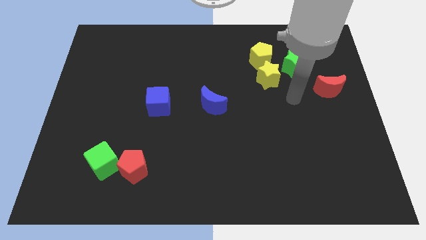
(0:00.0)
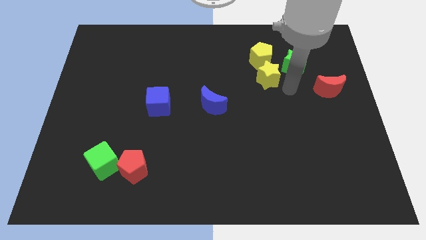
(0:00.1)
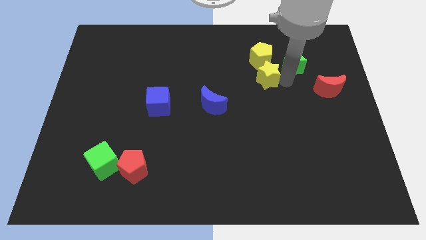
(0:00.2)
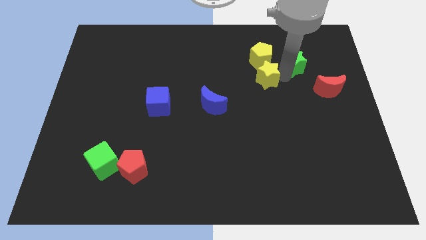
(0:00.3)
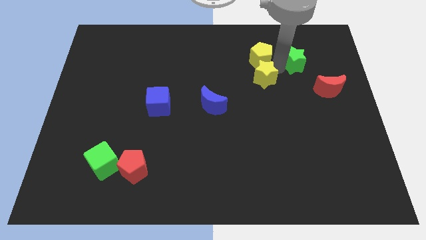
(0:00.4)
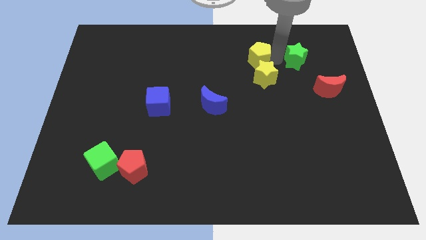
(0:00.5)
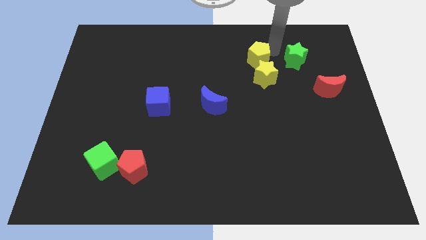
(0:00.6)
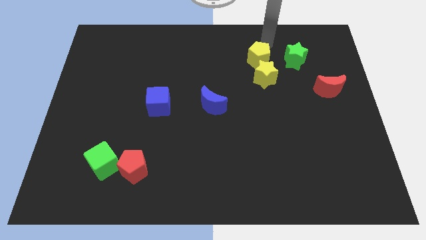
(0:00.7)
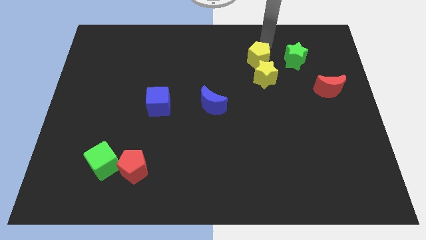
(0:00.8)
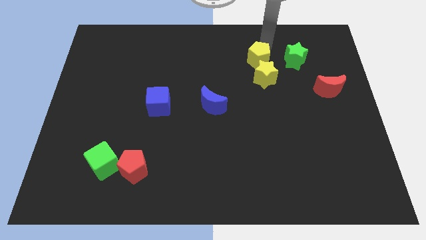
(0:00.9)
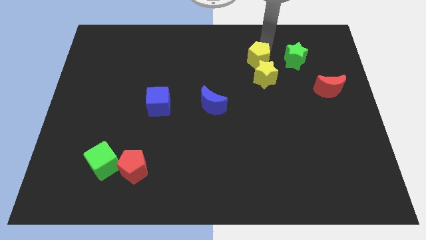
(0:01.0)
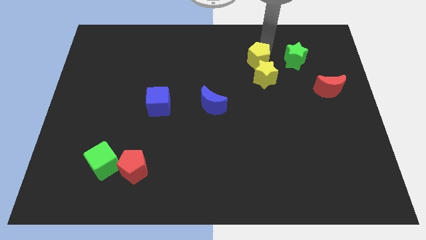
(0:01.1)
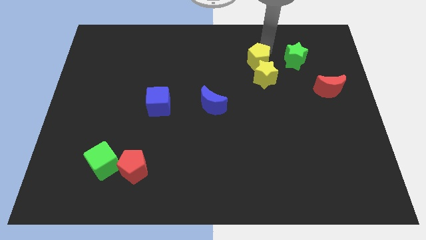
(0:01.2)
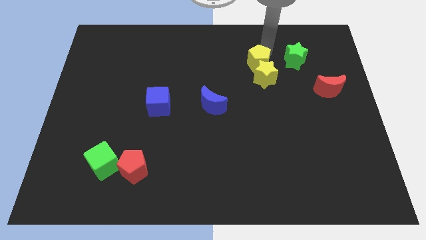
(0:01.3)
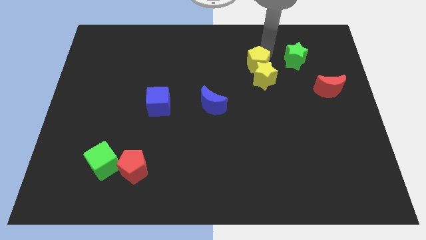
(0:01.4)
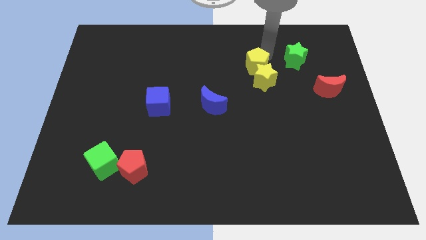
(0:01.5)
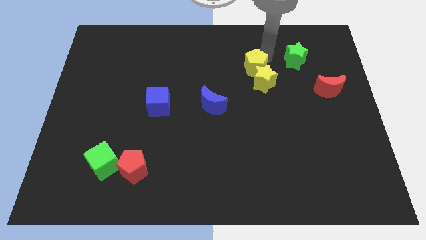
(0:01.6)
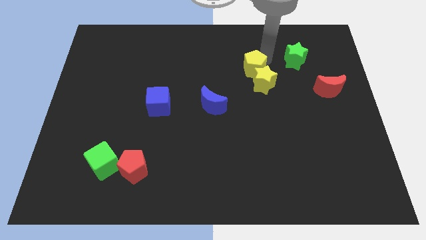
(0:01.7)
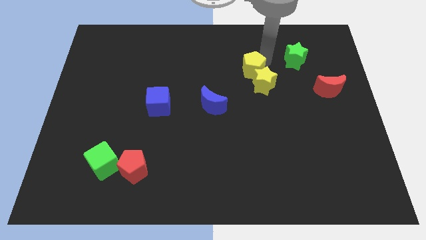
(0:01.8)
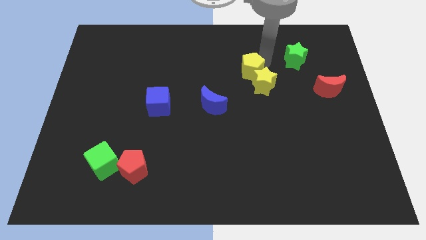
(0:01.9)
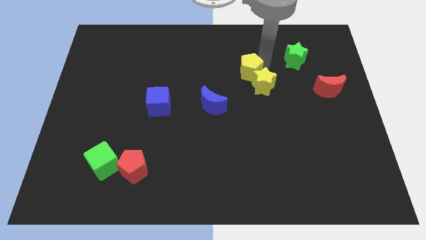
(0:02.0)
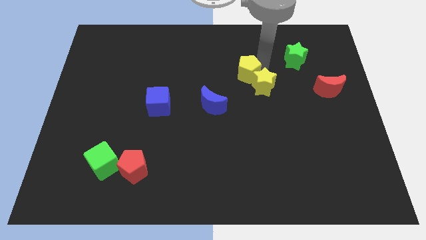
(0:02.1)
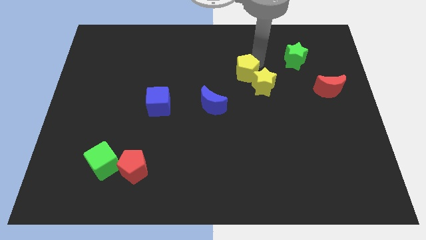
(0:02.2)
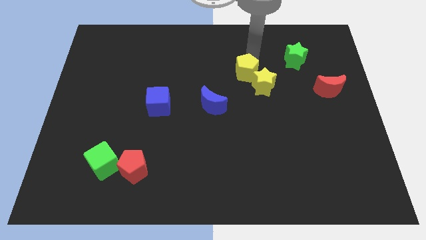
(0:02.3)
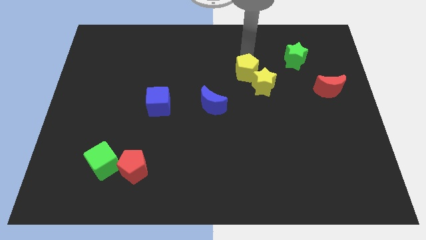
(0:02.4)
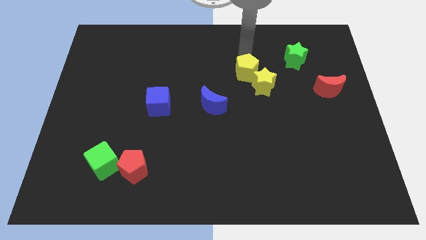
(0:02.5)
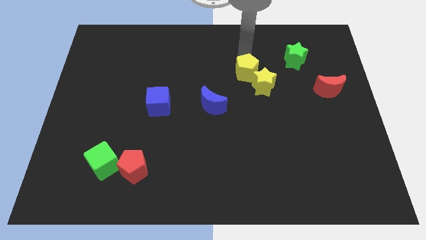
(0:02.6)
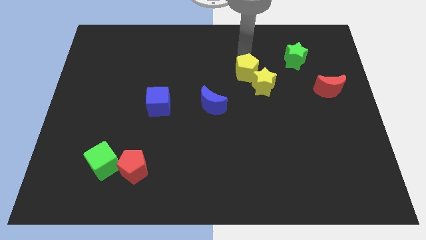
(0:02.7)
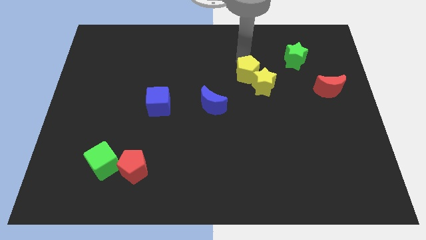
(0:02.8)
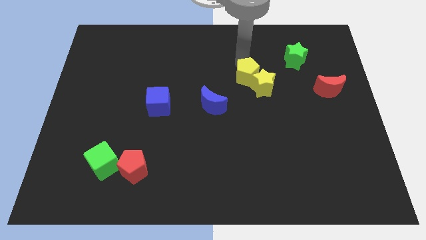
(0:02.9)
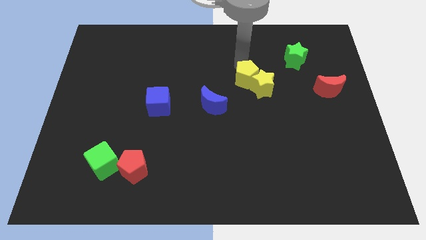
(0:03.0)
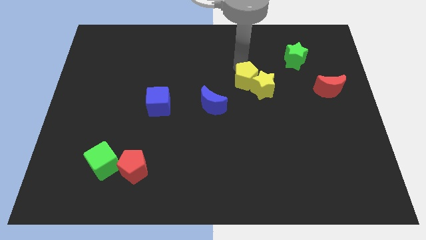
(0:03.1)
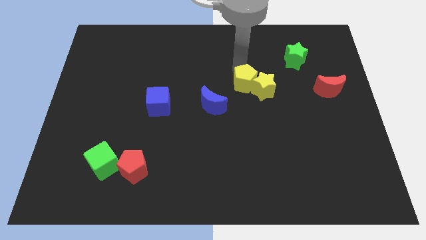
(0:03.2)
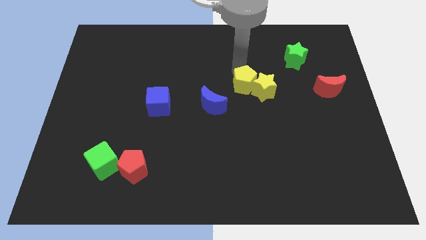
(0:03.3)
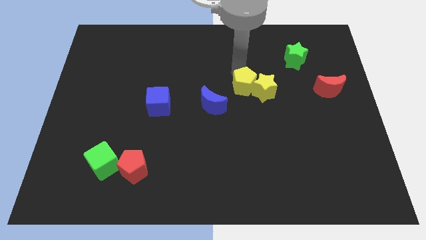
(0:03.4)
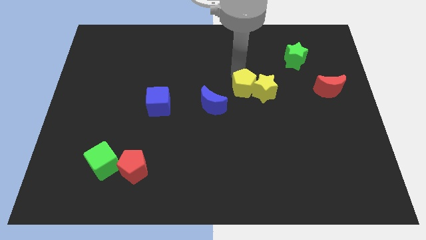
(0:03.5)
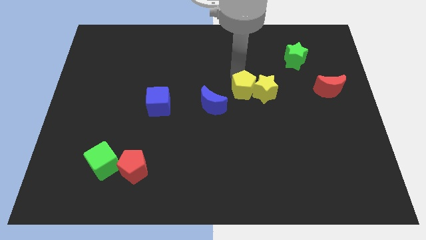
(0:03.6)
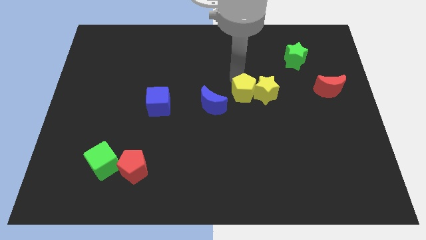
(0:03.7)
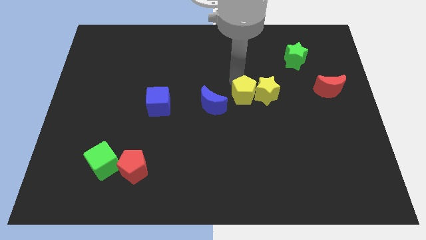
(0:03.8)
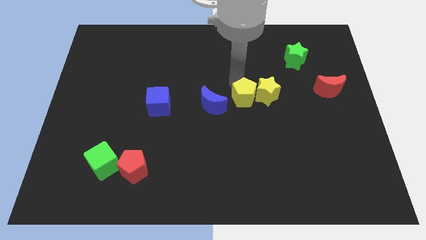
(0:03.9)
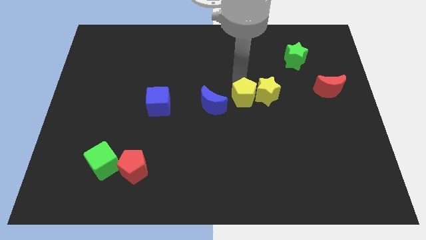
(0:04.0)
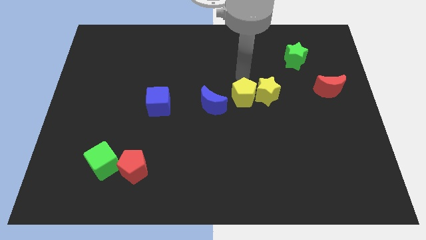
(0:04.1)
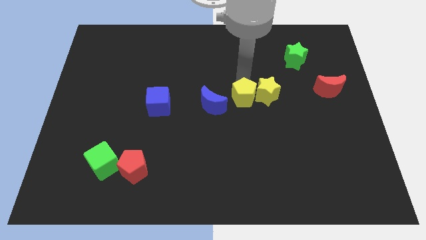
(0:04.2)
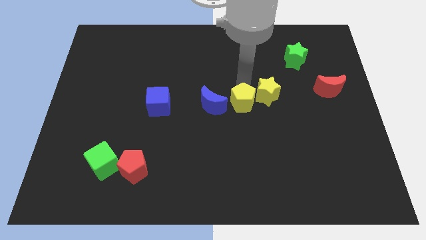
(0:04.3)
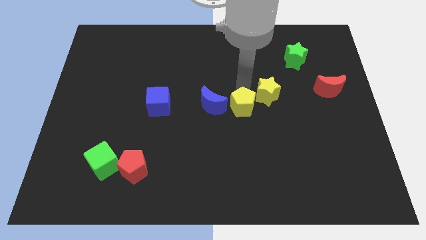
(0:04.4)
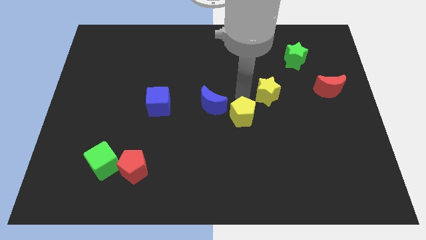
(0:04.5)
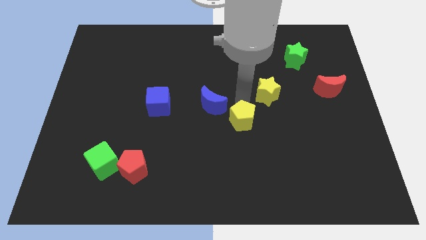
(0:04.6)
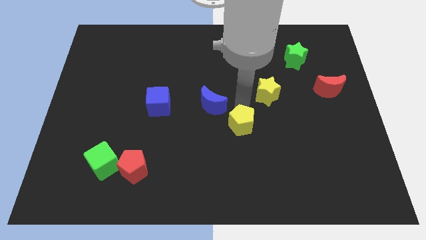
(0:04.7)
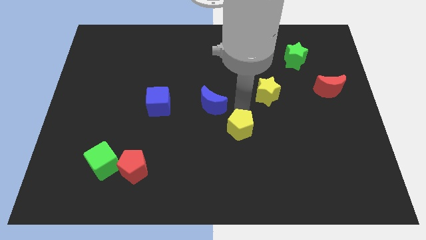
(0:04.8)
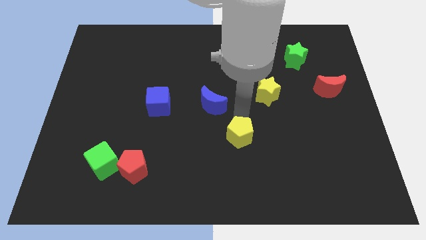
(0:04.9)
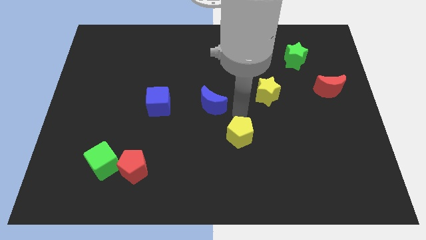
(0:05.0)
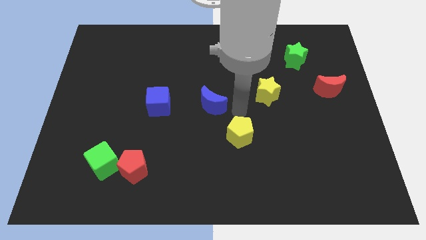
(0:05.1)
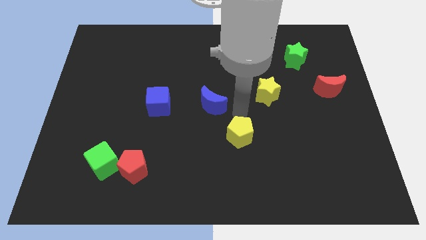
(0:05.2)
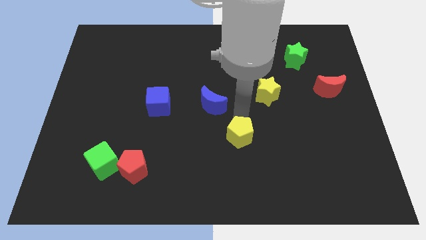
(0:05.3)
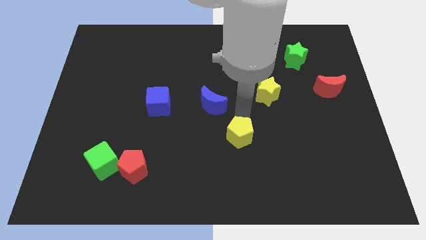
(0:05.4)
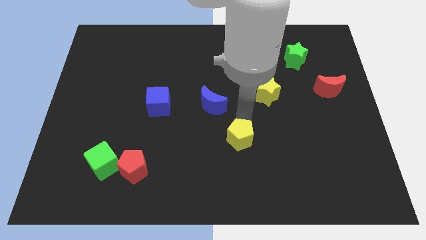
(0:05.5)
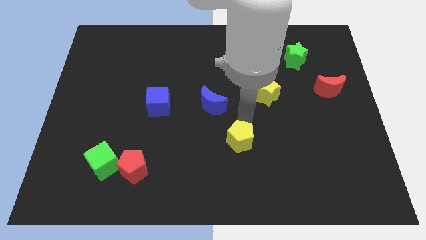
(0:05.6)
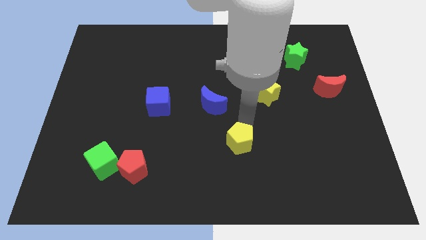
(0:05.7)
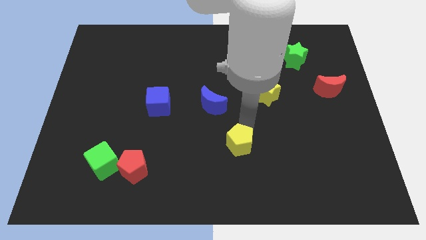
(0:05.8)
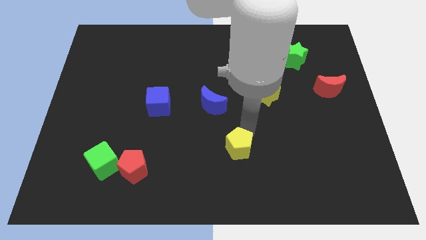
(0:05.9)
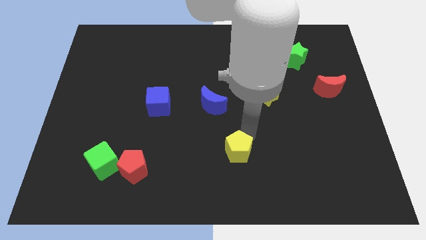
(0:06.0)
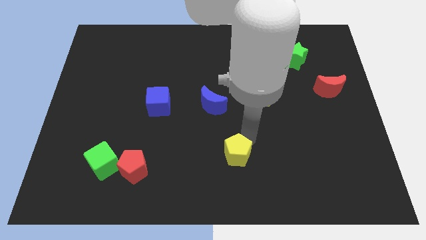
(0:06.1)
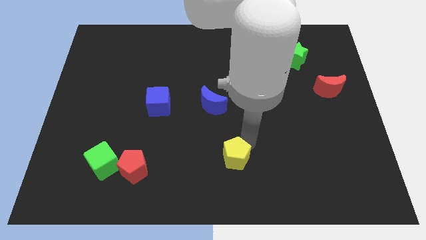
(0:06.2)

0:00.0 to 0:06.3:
put the yellow pentagon to the bottom side
